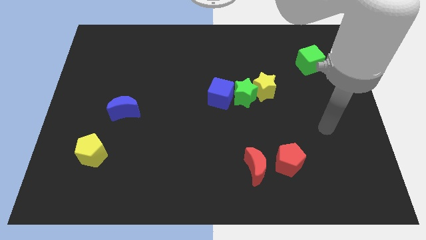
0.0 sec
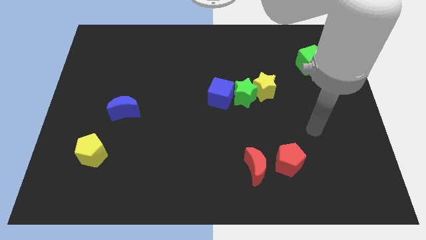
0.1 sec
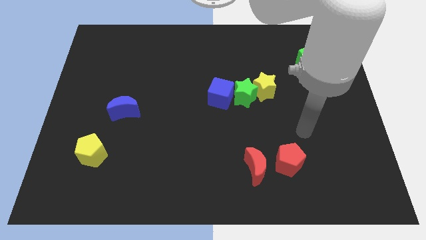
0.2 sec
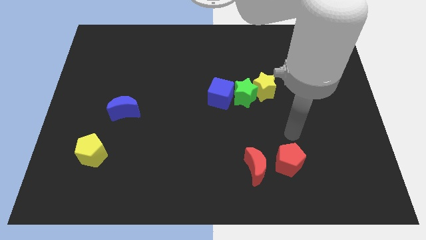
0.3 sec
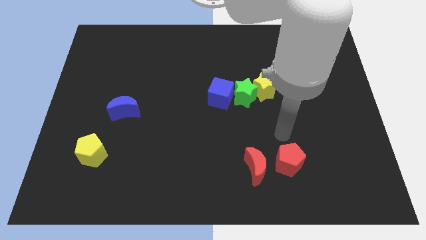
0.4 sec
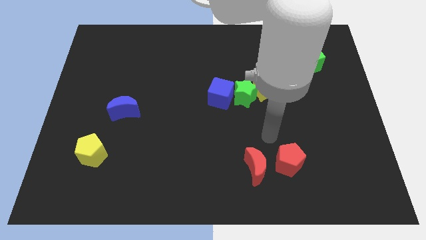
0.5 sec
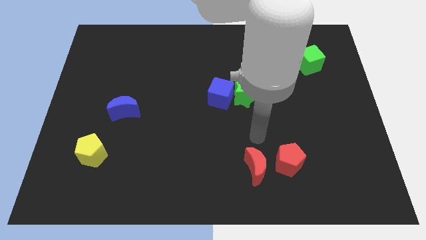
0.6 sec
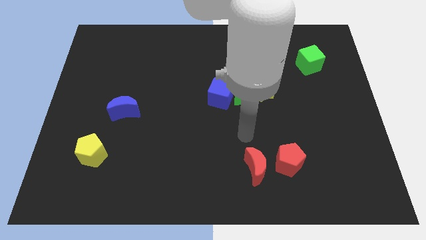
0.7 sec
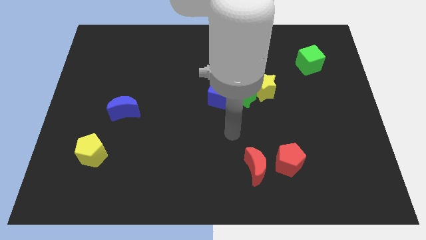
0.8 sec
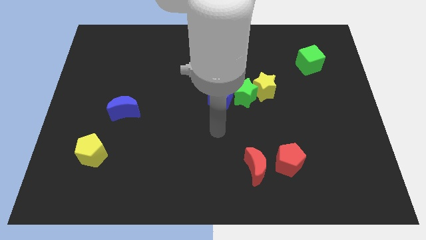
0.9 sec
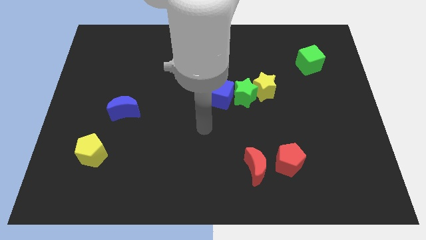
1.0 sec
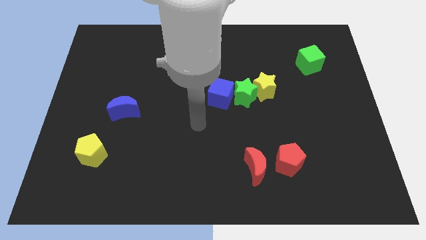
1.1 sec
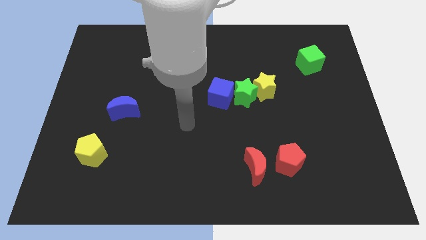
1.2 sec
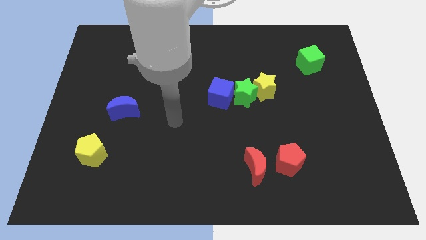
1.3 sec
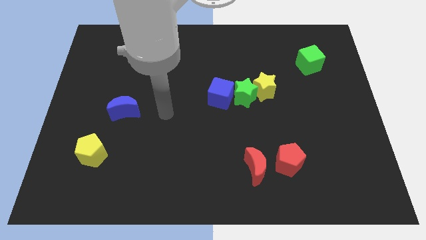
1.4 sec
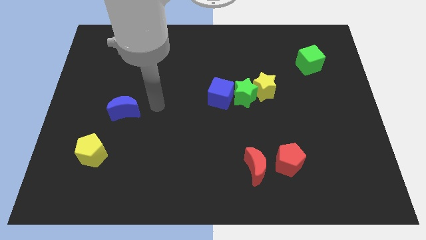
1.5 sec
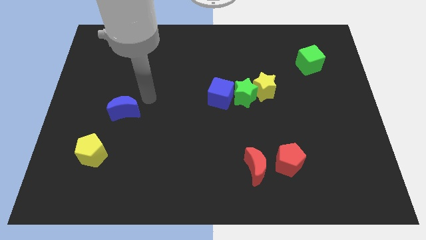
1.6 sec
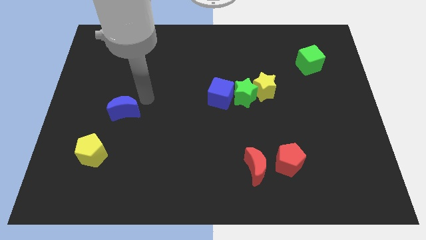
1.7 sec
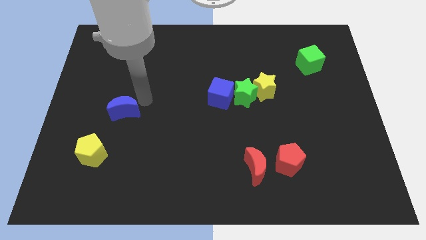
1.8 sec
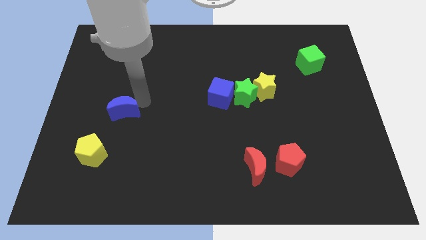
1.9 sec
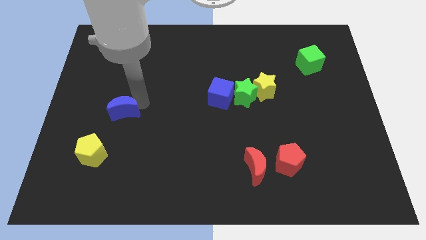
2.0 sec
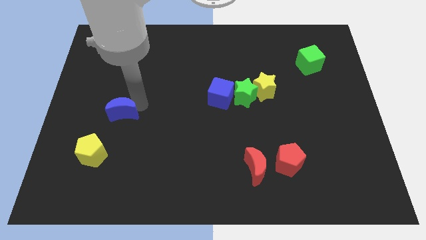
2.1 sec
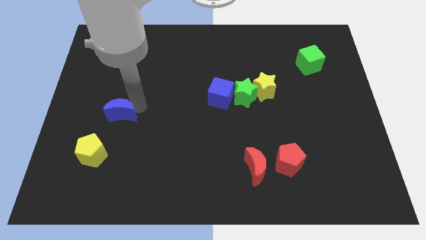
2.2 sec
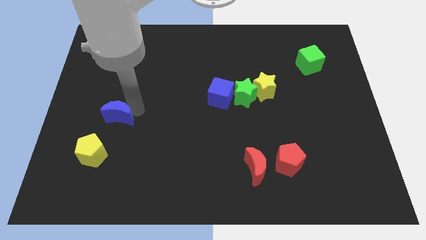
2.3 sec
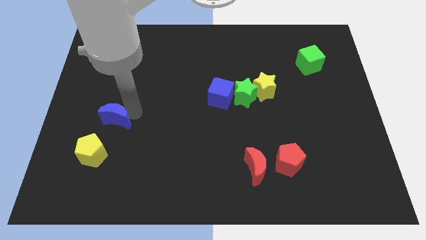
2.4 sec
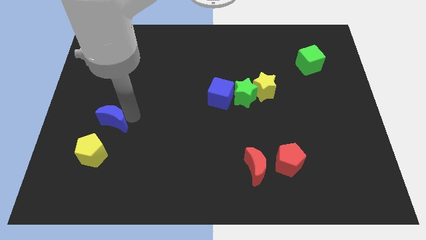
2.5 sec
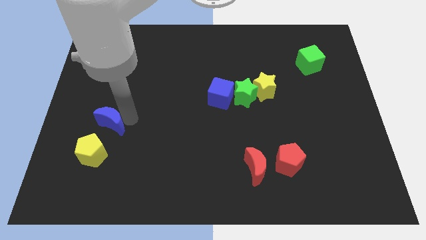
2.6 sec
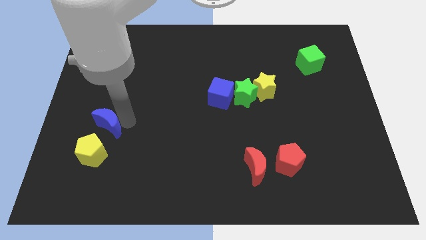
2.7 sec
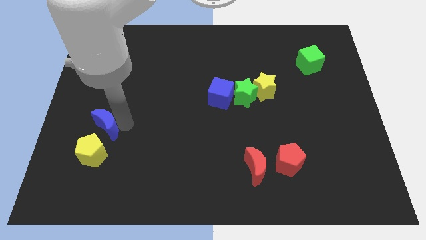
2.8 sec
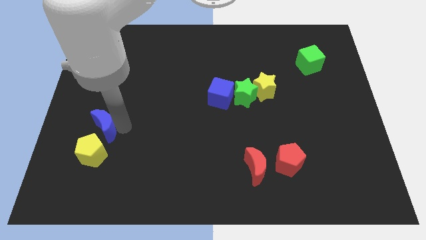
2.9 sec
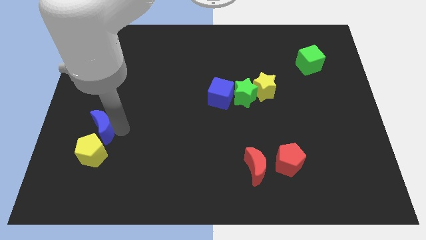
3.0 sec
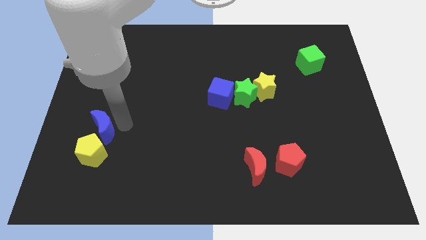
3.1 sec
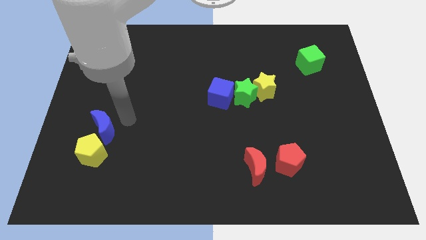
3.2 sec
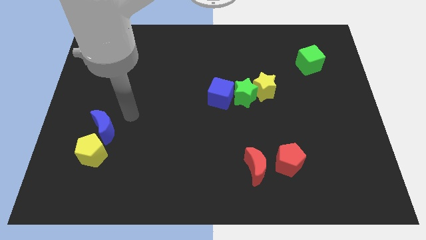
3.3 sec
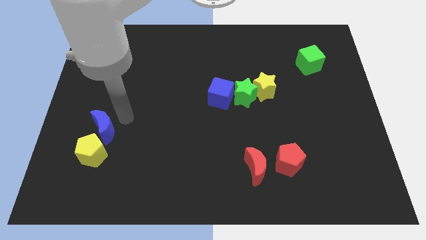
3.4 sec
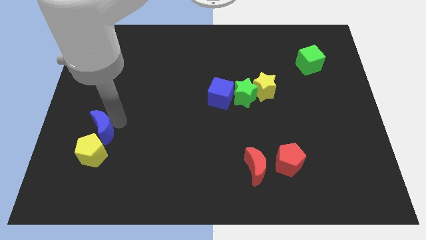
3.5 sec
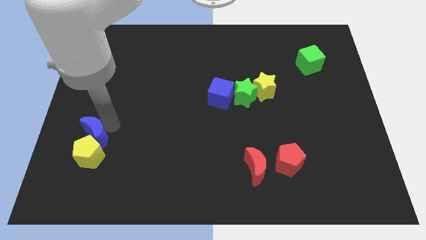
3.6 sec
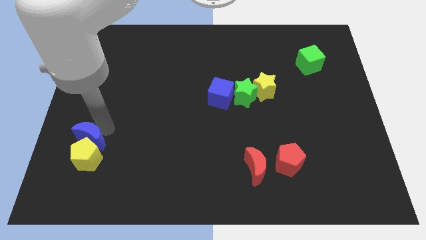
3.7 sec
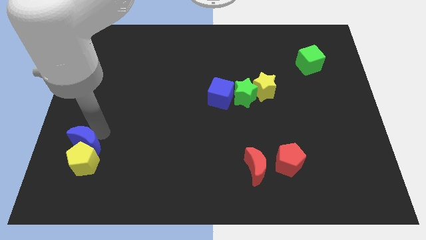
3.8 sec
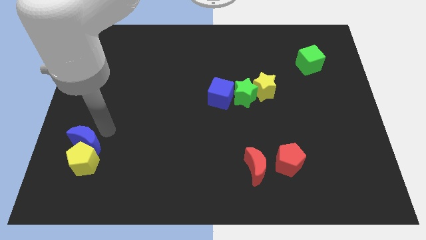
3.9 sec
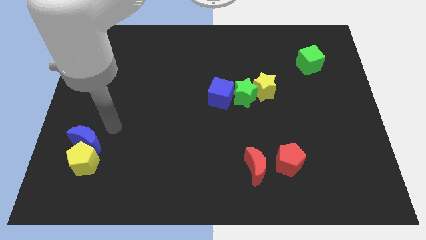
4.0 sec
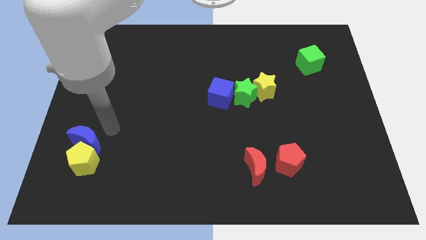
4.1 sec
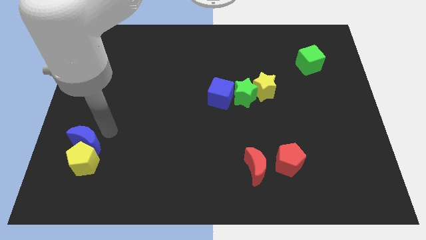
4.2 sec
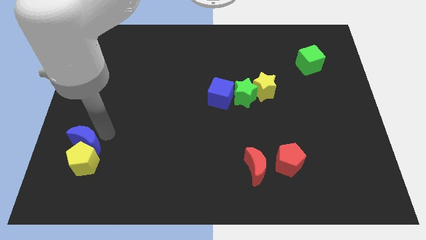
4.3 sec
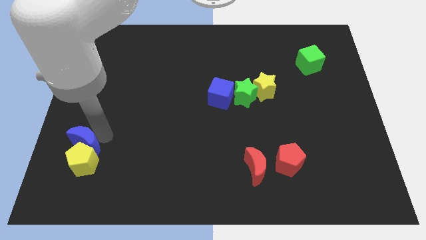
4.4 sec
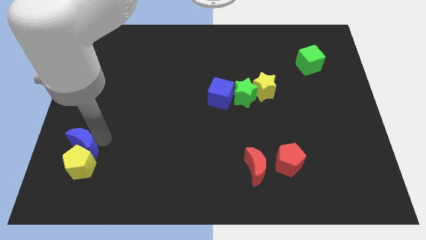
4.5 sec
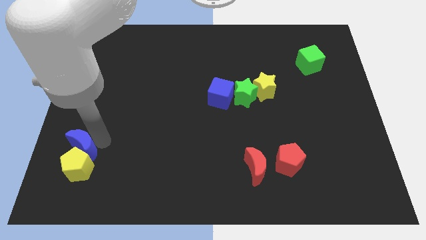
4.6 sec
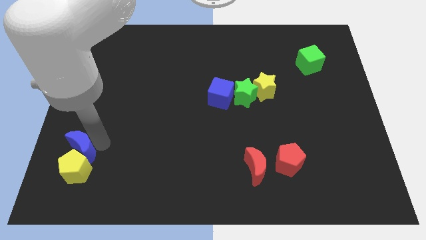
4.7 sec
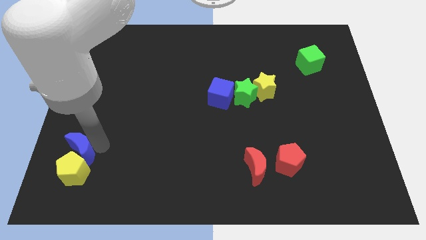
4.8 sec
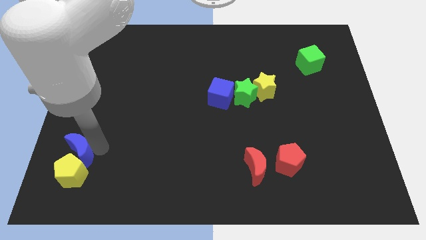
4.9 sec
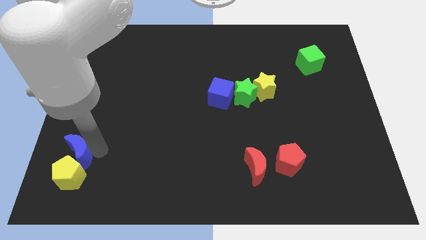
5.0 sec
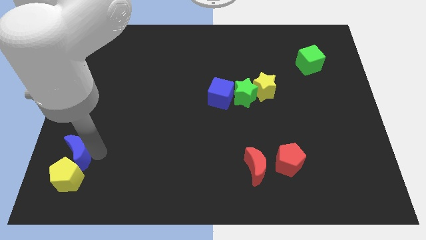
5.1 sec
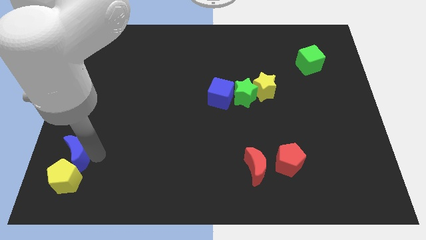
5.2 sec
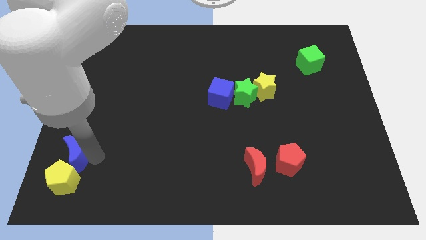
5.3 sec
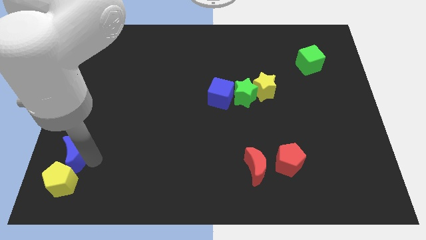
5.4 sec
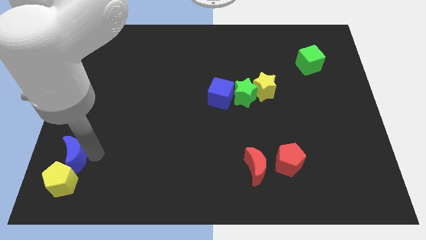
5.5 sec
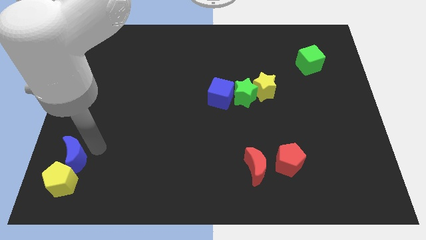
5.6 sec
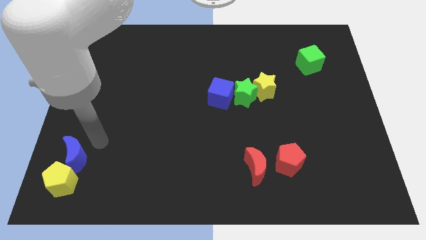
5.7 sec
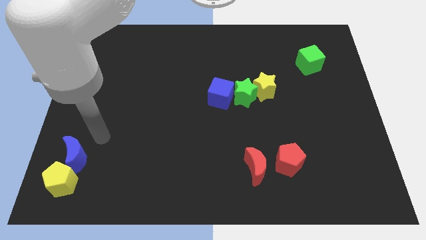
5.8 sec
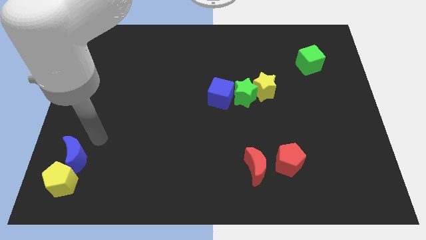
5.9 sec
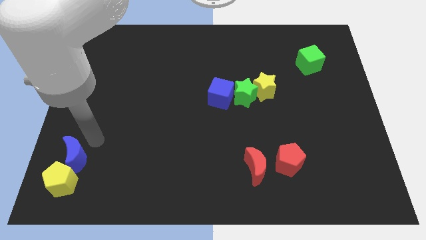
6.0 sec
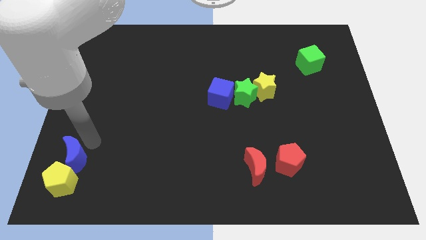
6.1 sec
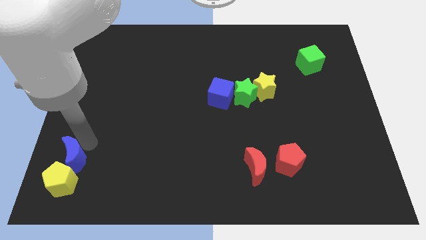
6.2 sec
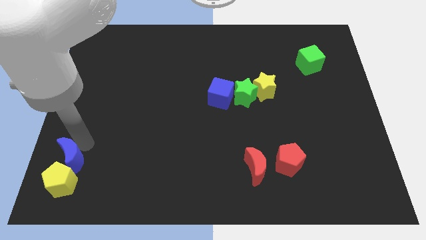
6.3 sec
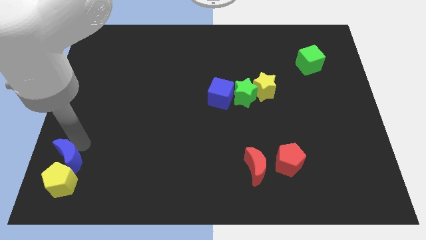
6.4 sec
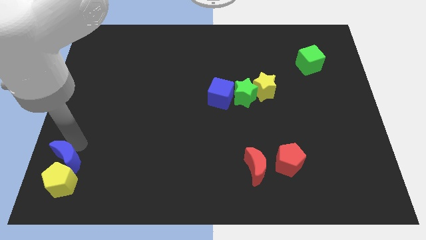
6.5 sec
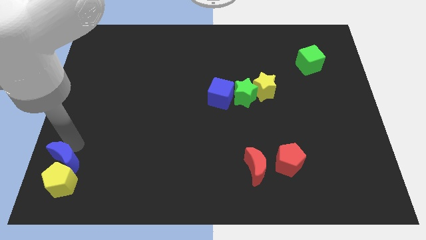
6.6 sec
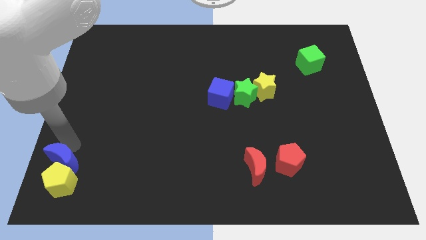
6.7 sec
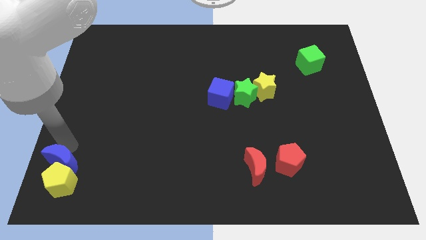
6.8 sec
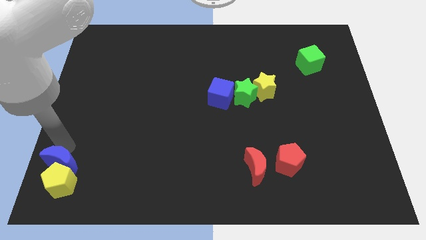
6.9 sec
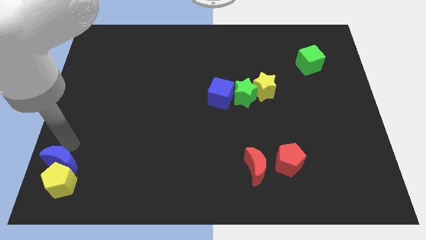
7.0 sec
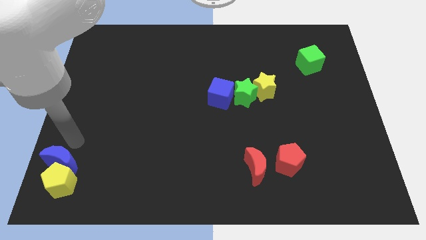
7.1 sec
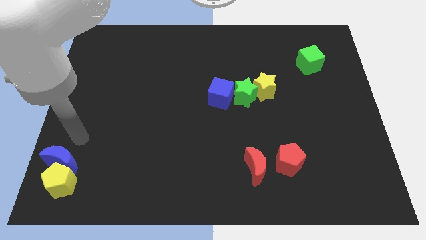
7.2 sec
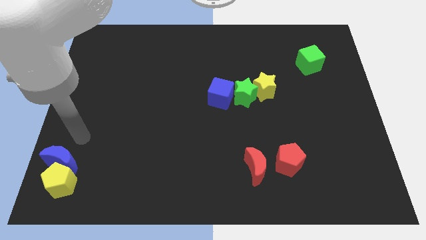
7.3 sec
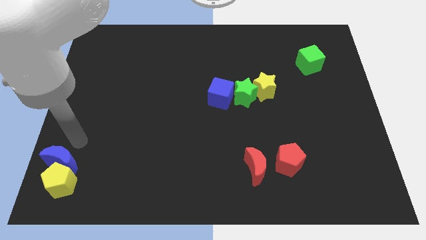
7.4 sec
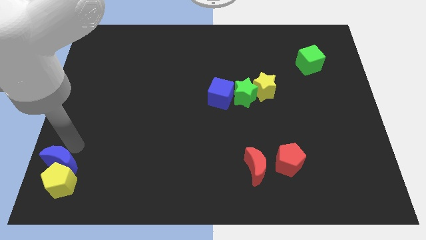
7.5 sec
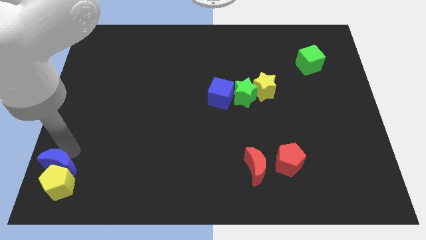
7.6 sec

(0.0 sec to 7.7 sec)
slide the blue moon to the bottom left of the board
